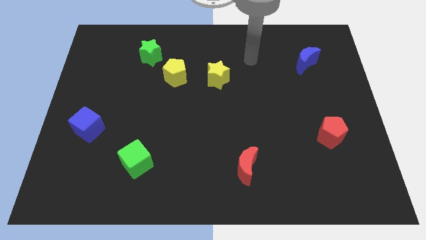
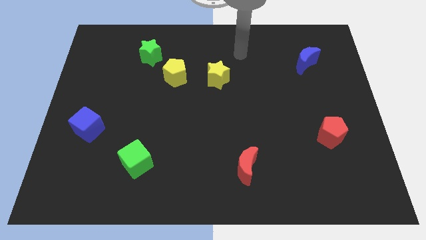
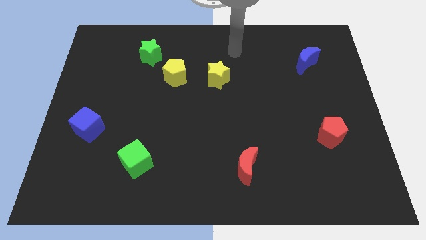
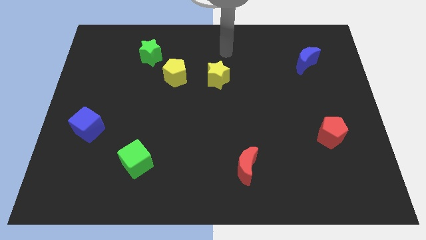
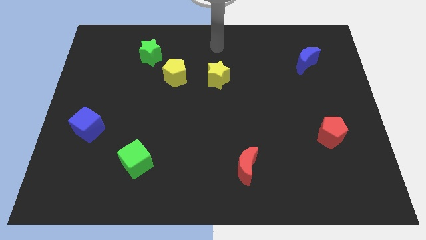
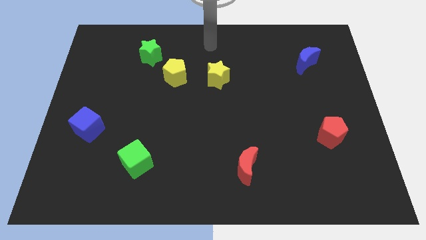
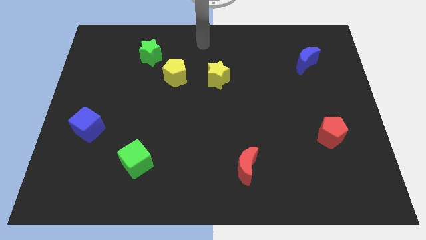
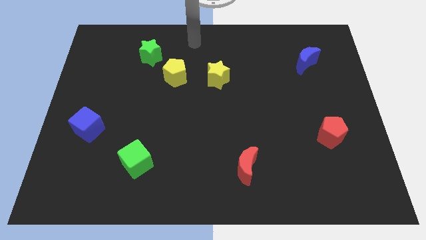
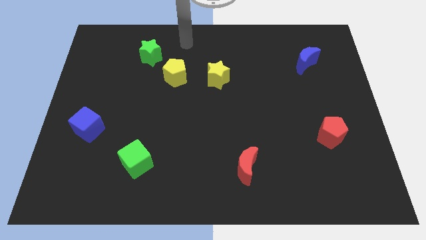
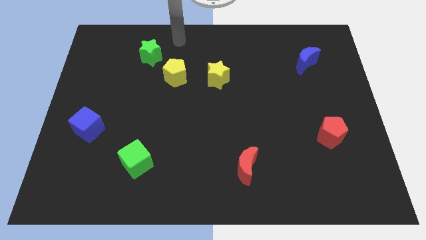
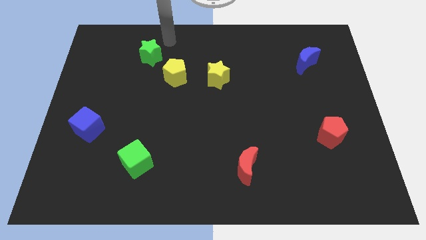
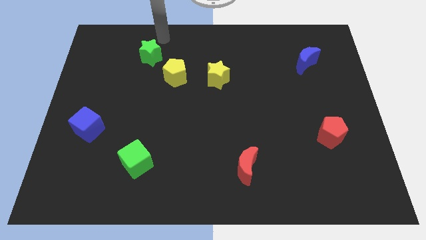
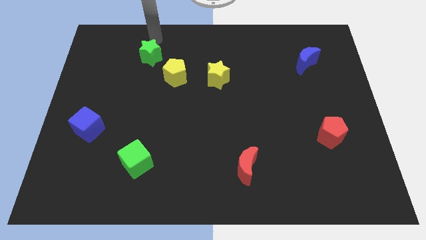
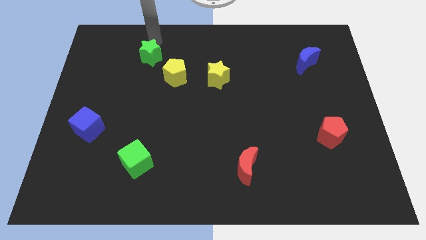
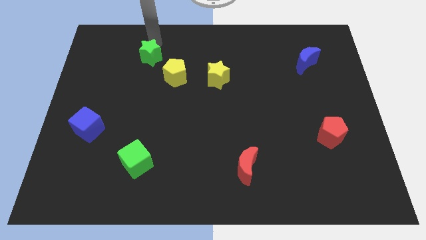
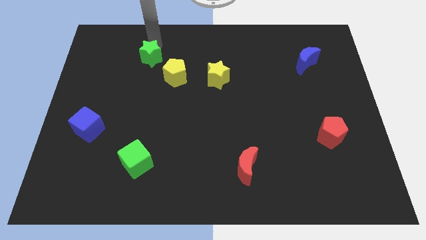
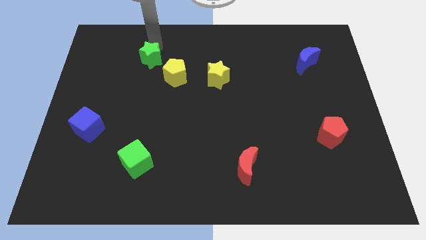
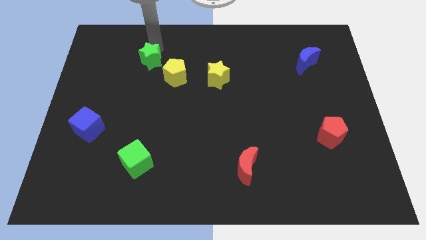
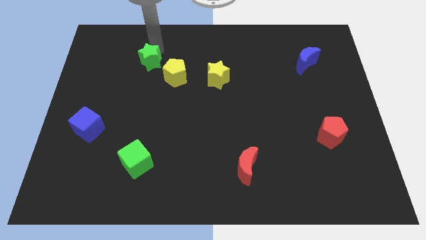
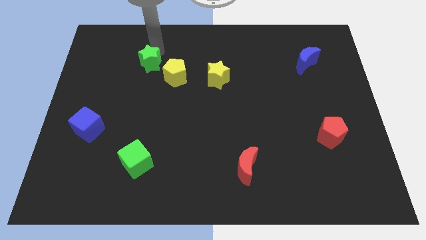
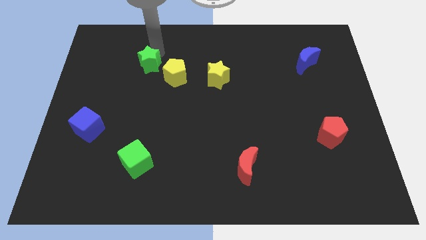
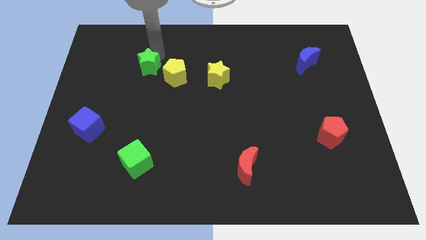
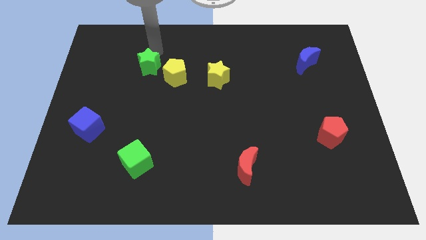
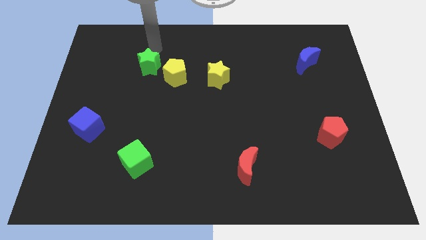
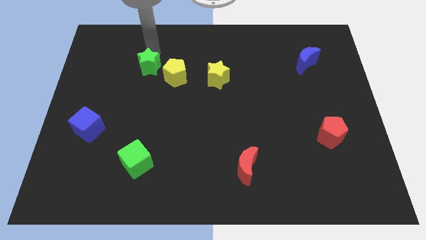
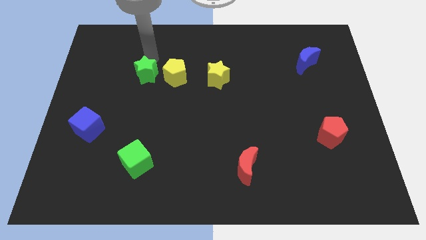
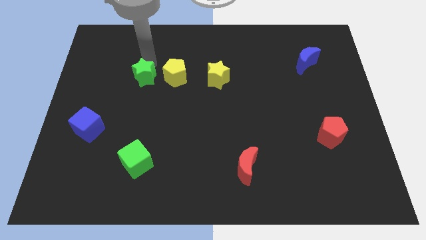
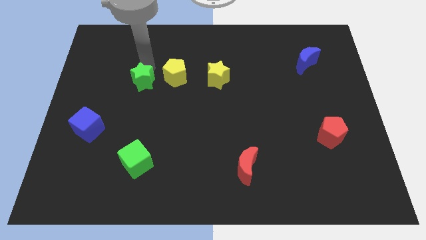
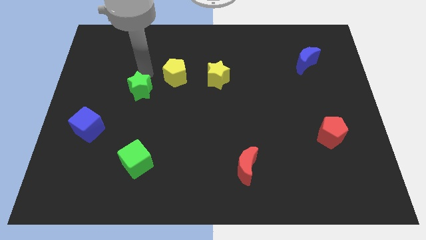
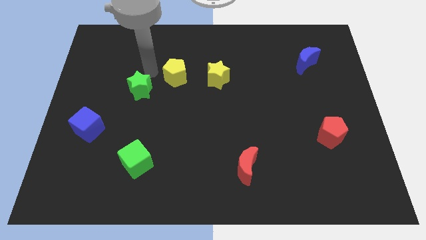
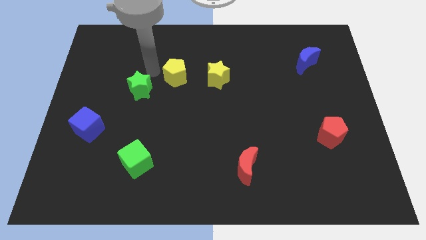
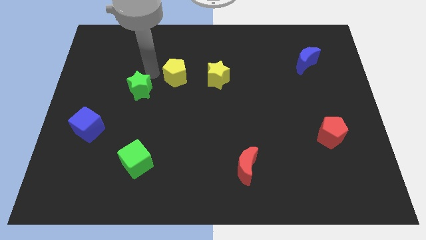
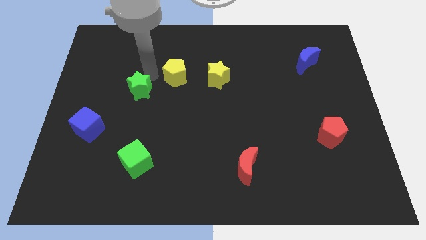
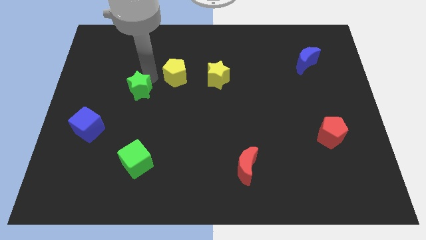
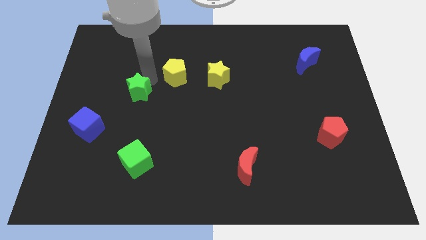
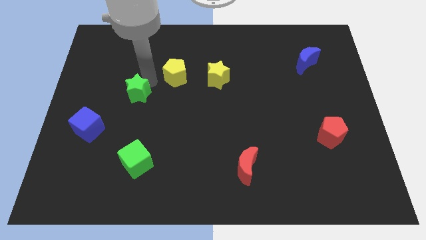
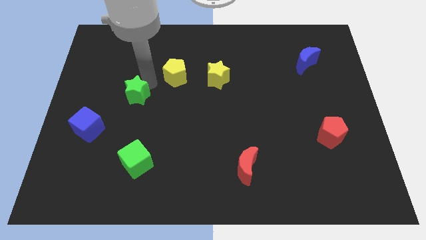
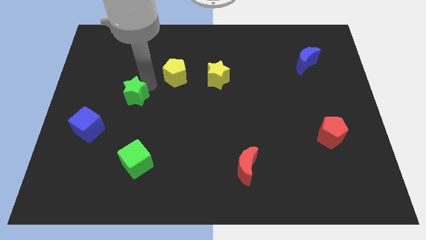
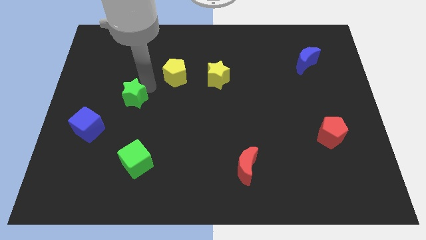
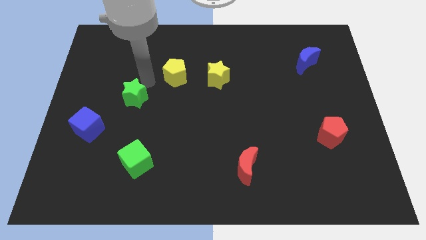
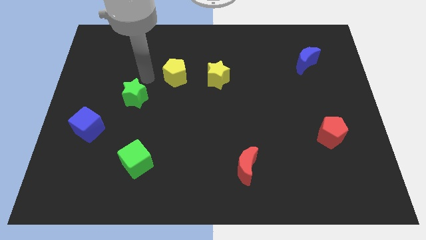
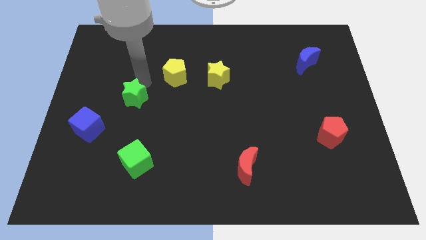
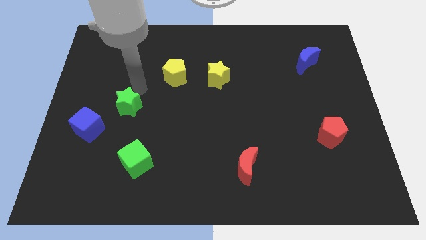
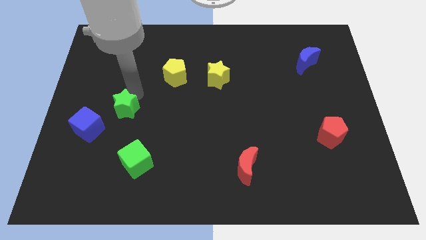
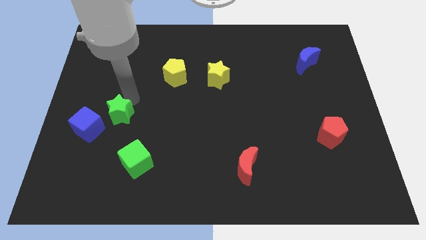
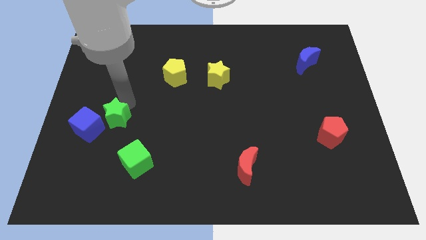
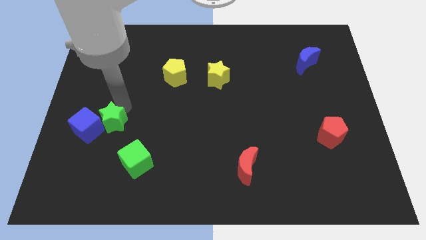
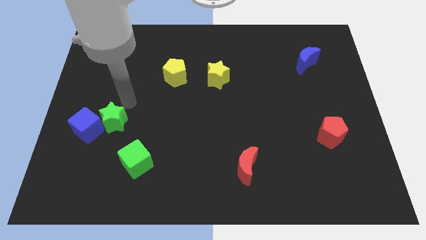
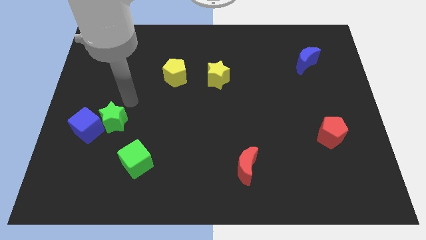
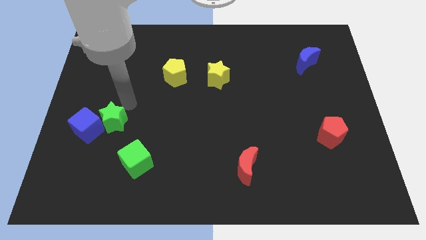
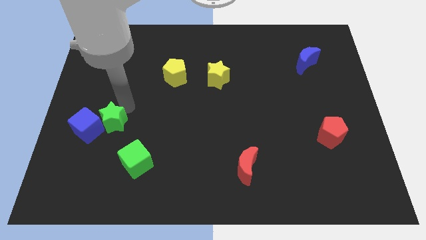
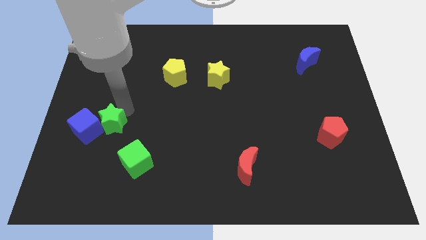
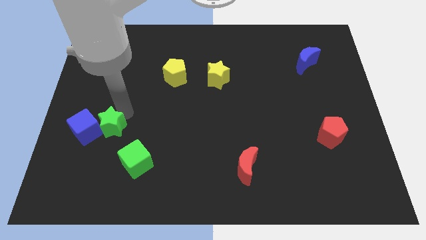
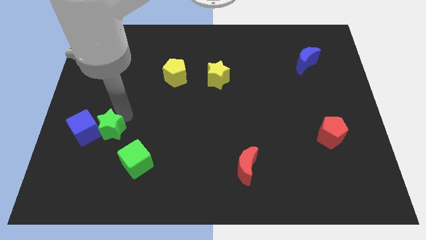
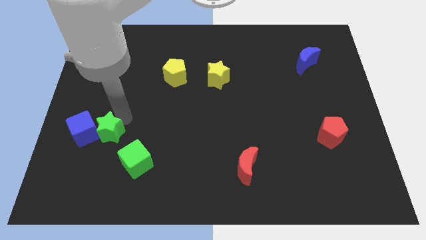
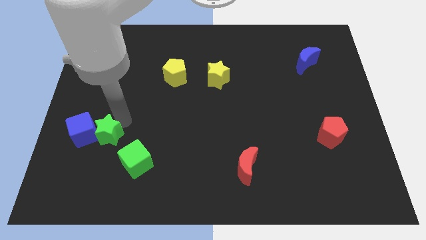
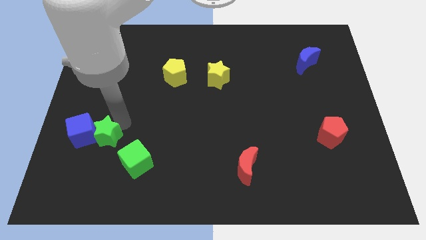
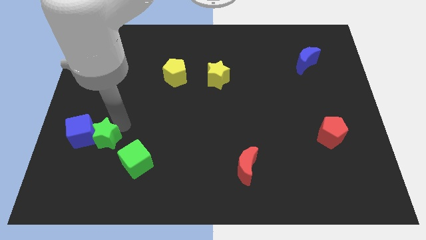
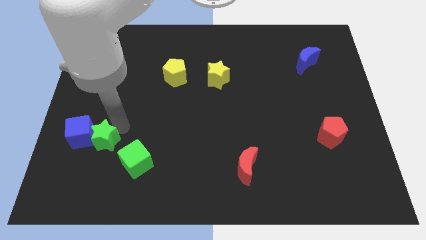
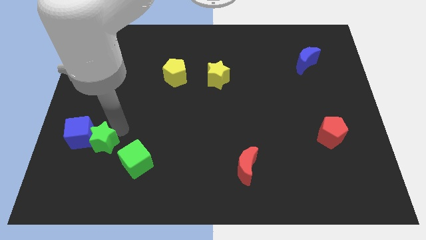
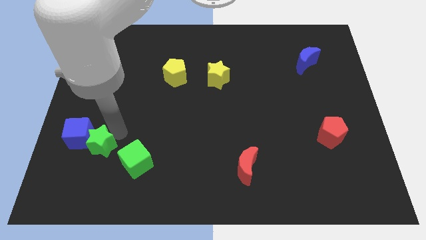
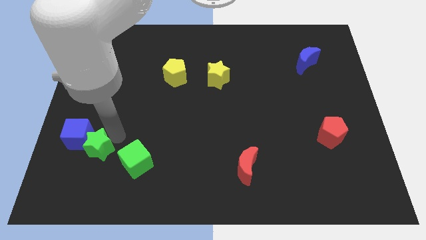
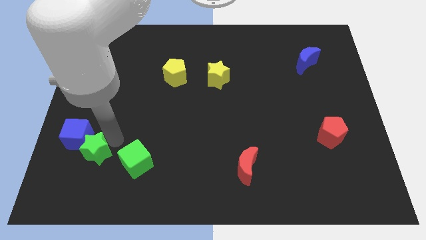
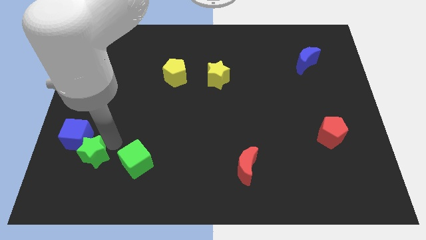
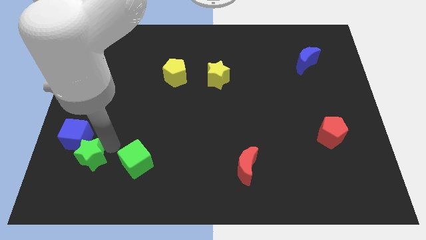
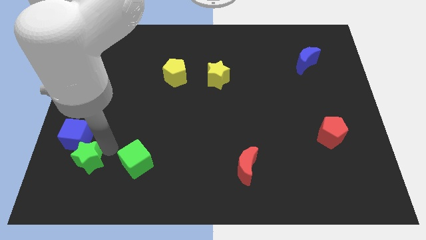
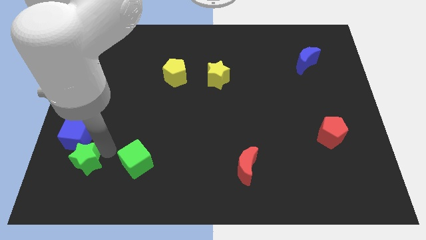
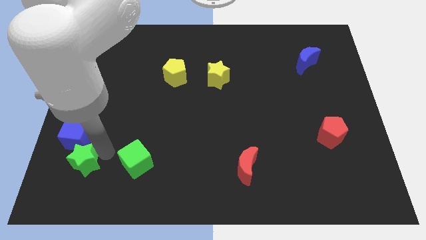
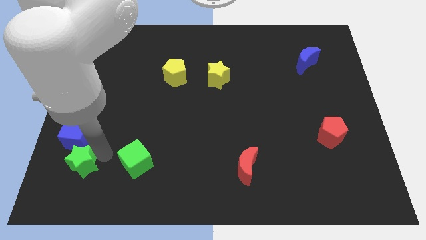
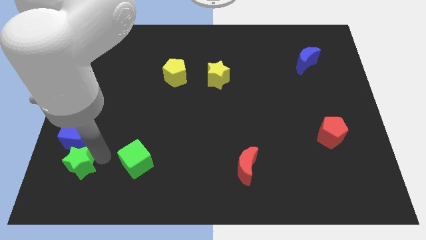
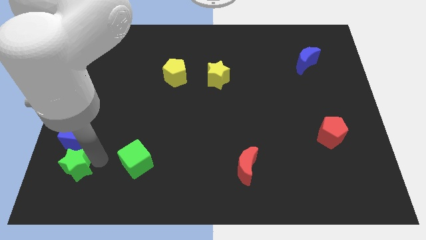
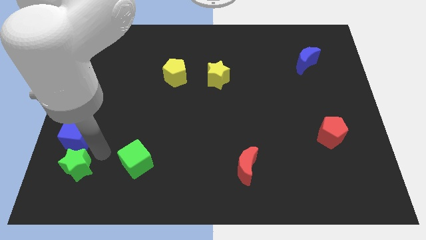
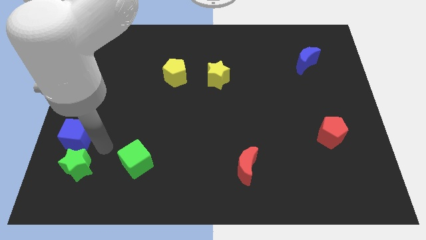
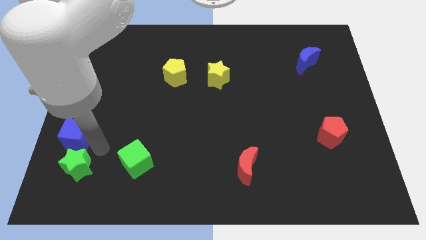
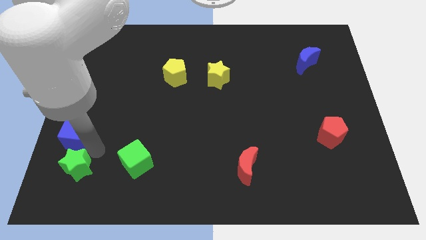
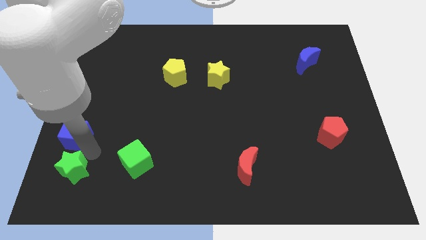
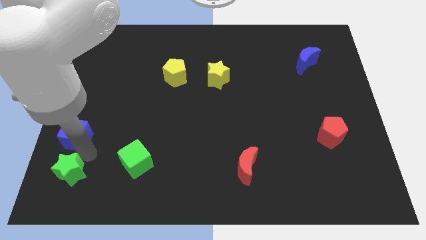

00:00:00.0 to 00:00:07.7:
move the green star to the bottom left corner
